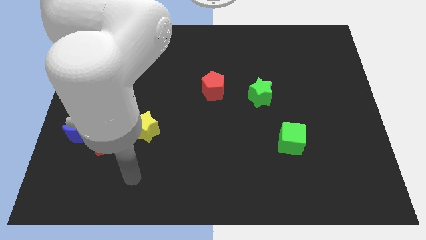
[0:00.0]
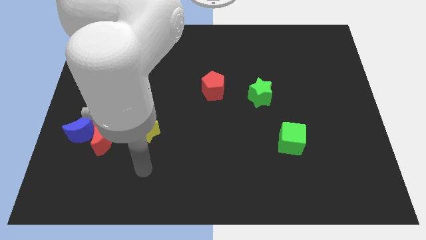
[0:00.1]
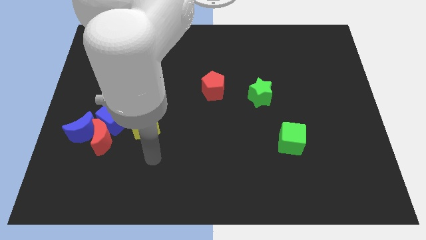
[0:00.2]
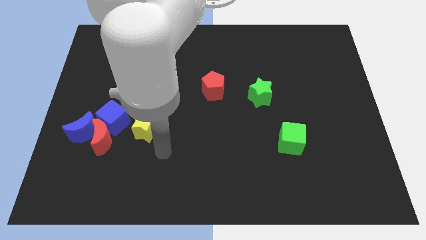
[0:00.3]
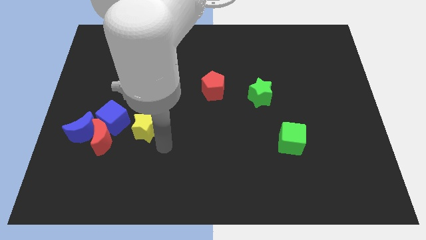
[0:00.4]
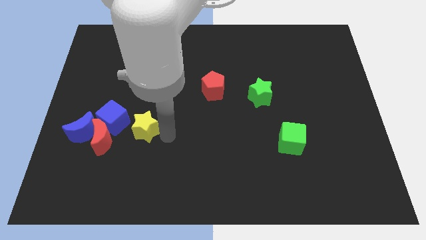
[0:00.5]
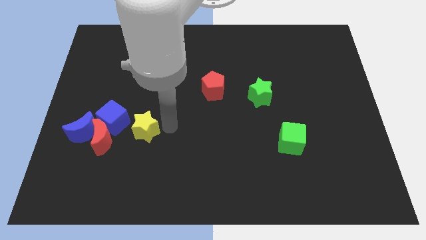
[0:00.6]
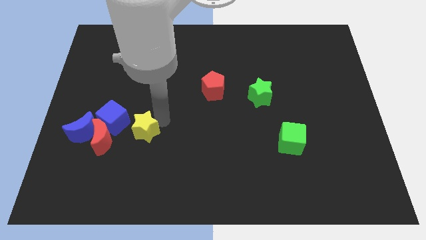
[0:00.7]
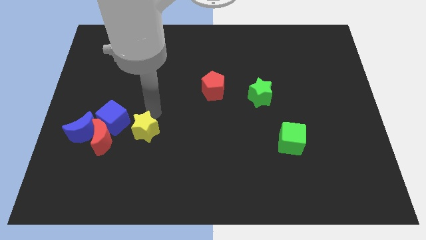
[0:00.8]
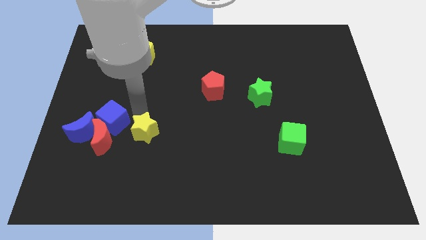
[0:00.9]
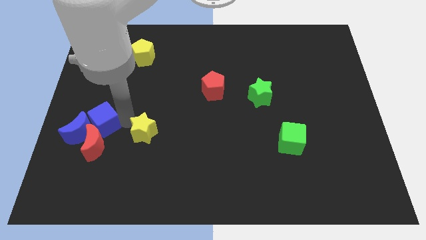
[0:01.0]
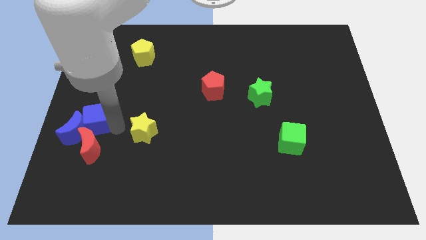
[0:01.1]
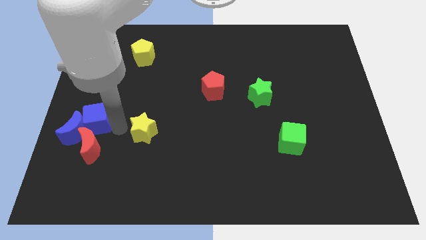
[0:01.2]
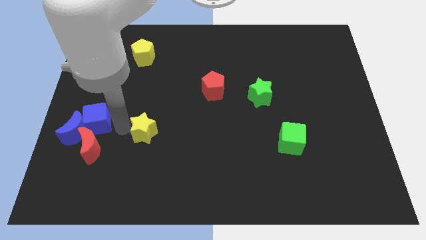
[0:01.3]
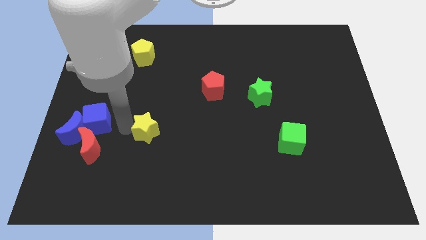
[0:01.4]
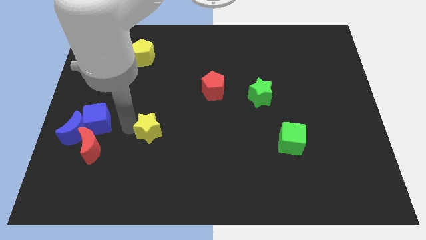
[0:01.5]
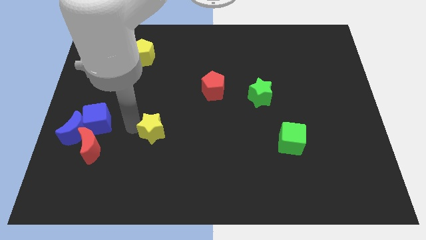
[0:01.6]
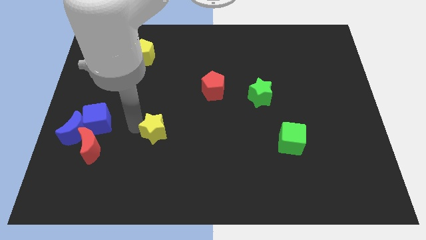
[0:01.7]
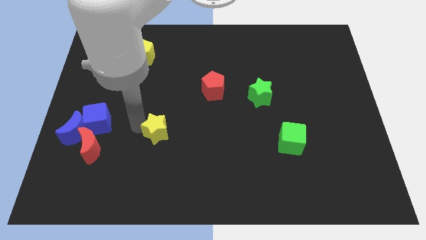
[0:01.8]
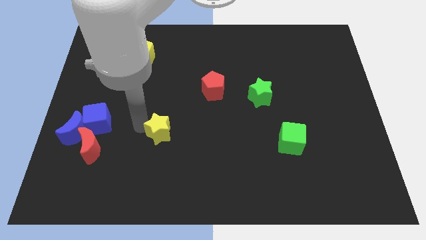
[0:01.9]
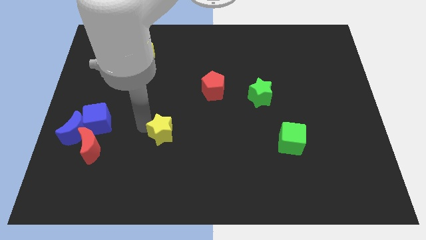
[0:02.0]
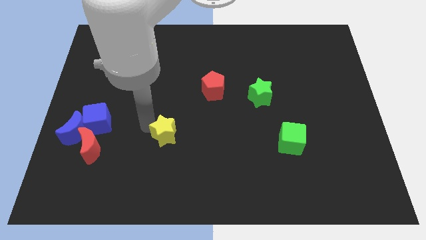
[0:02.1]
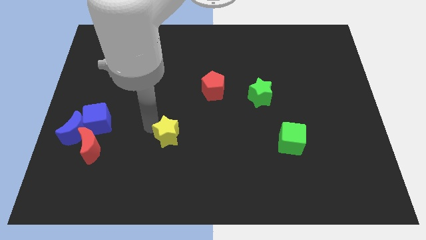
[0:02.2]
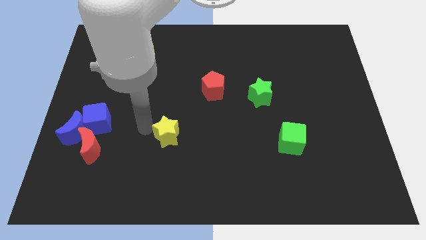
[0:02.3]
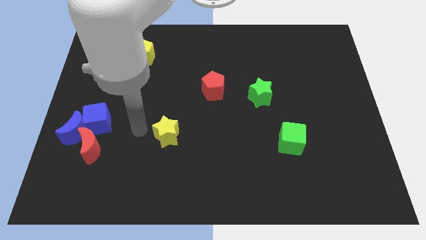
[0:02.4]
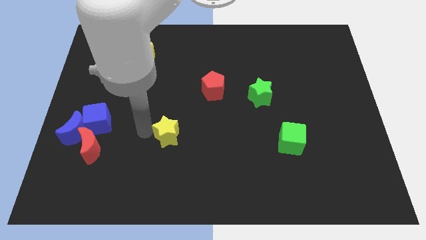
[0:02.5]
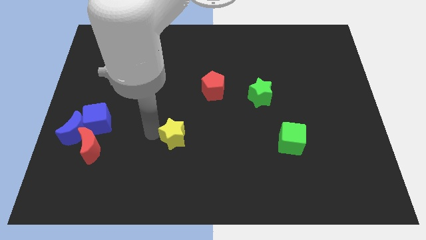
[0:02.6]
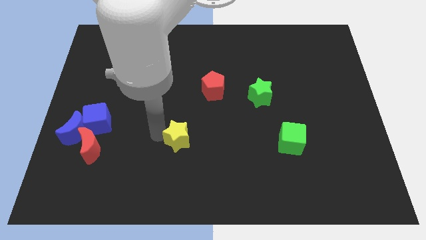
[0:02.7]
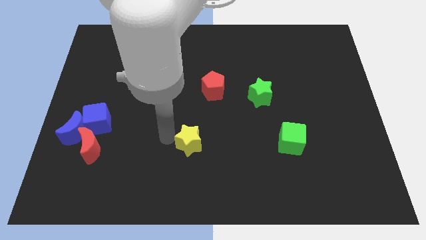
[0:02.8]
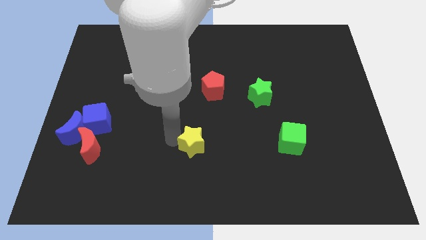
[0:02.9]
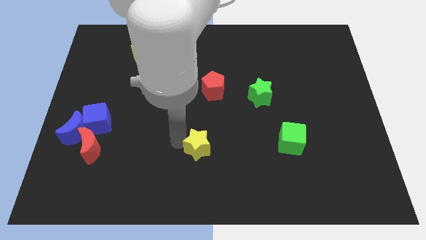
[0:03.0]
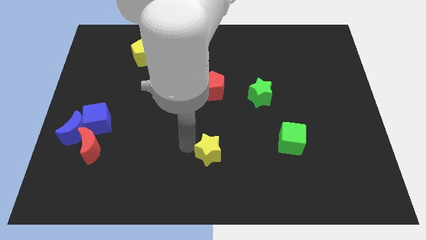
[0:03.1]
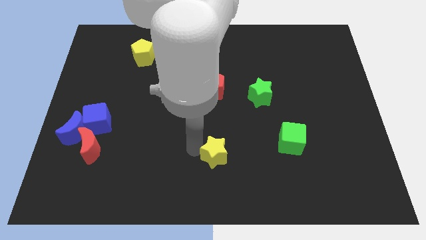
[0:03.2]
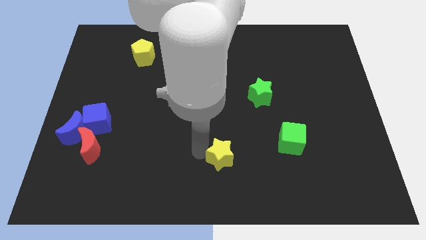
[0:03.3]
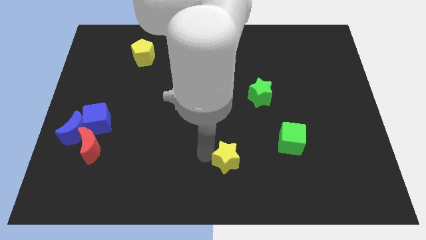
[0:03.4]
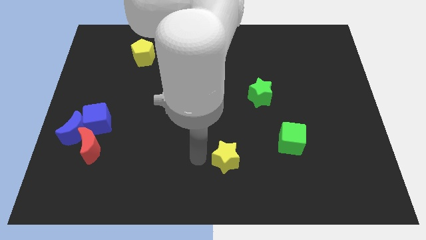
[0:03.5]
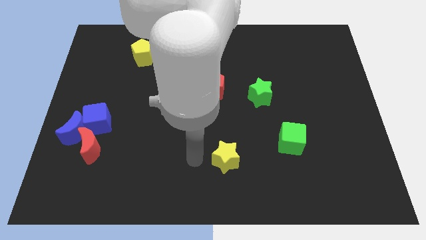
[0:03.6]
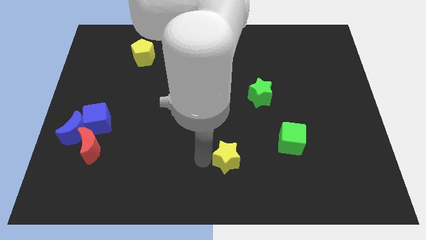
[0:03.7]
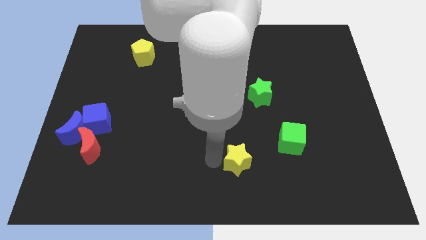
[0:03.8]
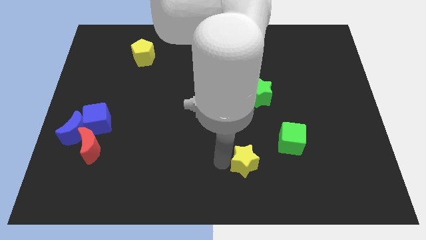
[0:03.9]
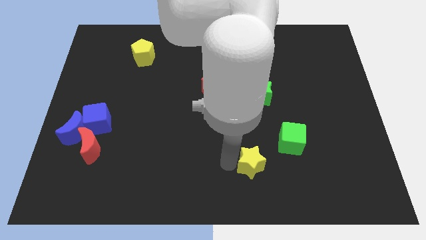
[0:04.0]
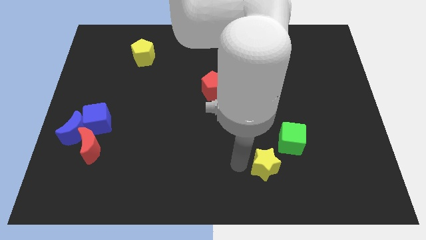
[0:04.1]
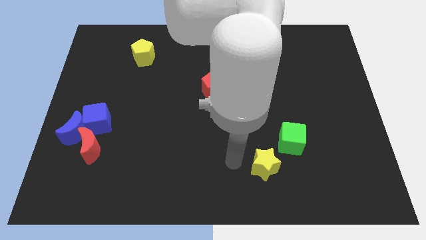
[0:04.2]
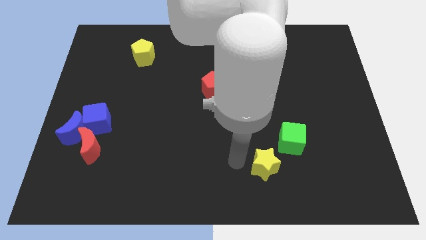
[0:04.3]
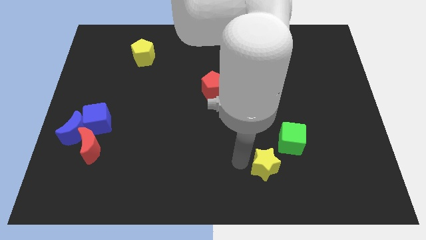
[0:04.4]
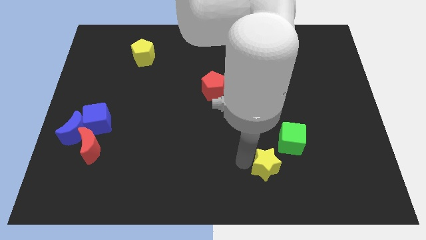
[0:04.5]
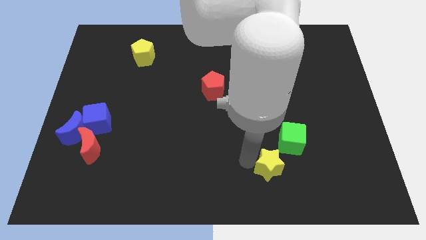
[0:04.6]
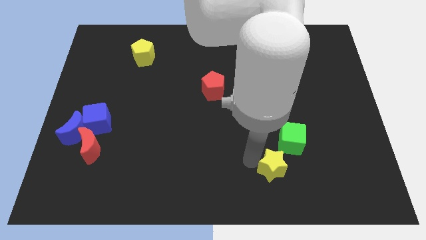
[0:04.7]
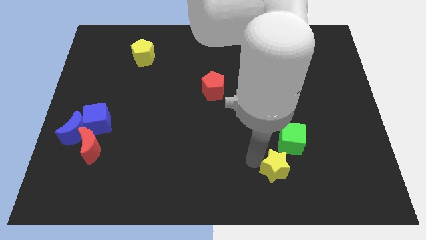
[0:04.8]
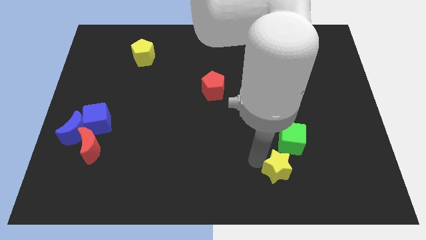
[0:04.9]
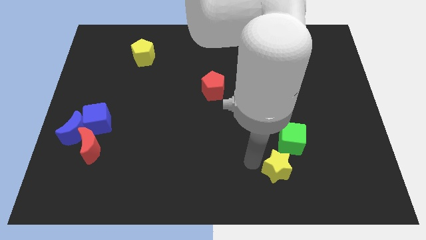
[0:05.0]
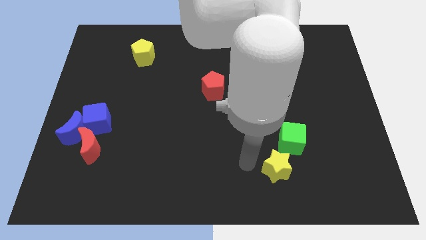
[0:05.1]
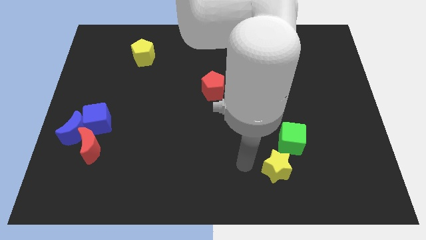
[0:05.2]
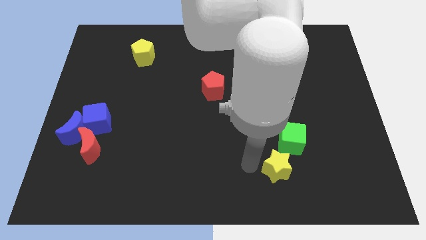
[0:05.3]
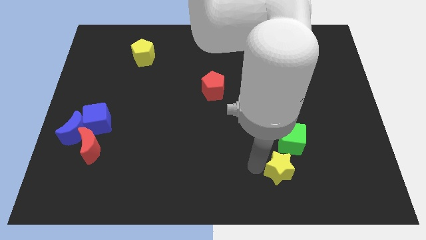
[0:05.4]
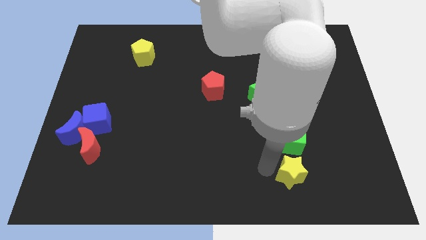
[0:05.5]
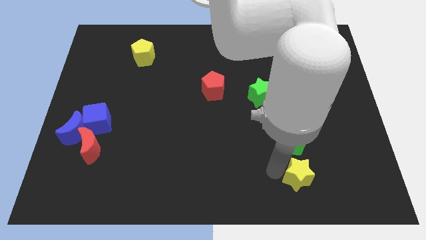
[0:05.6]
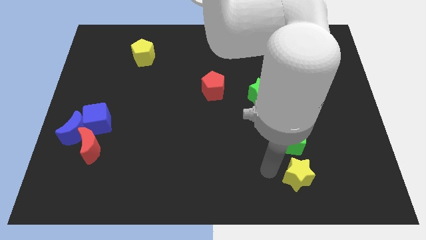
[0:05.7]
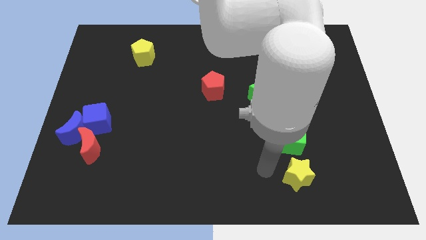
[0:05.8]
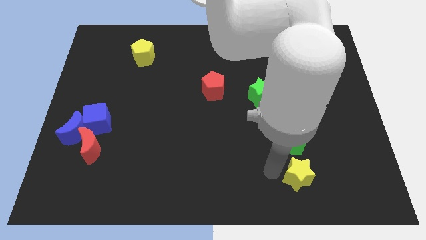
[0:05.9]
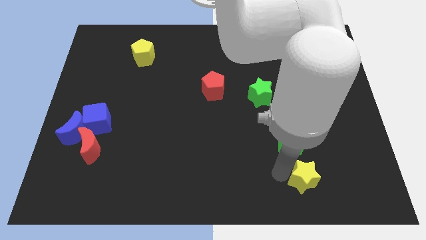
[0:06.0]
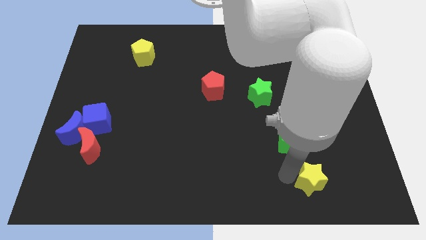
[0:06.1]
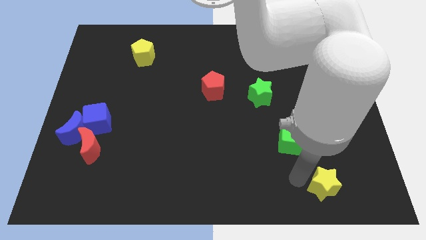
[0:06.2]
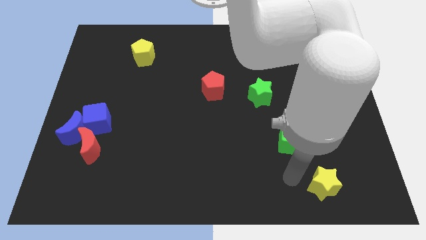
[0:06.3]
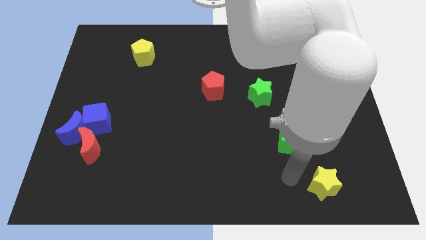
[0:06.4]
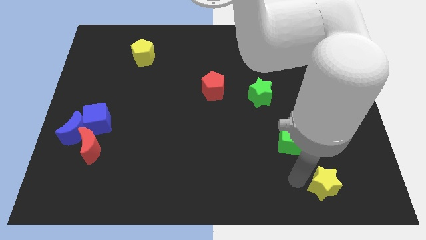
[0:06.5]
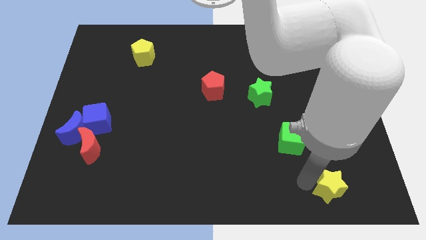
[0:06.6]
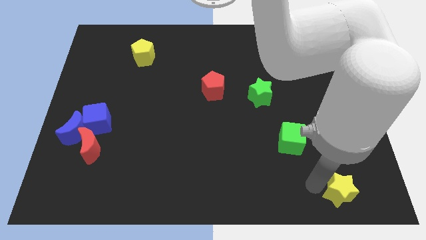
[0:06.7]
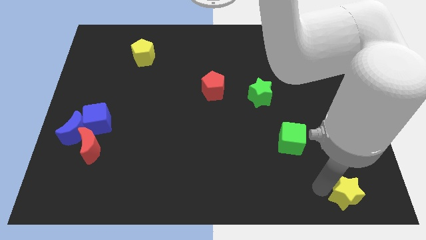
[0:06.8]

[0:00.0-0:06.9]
slide the yellow star to the bottom right

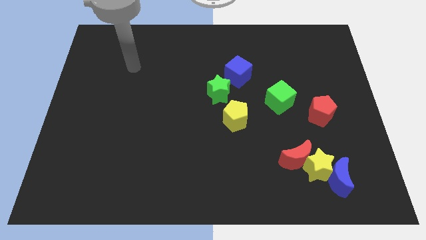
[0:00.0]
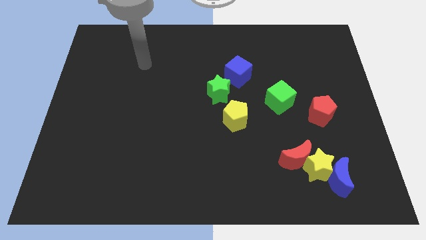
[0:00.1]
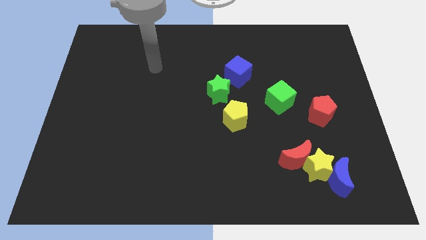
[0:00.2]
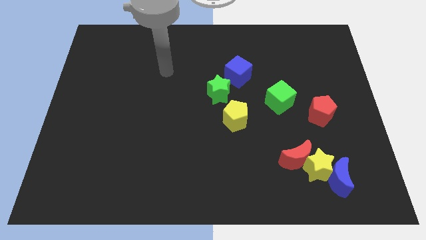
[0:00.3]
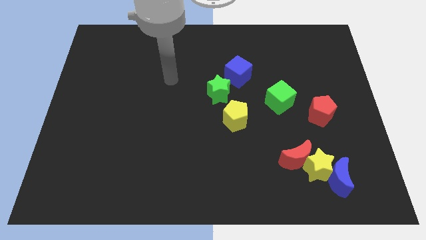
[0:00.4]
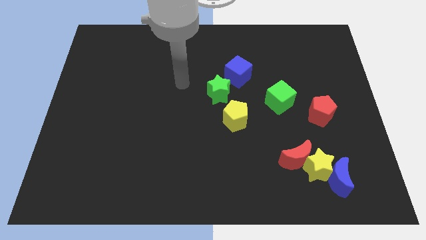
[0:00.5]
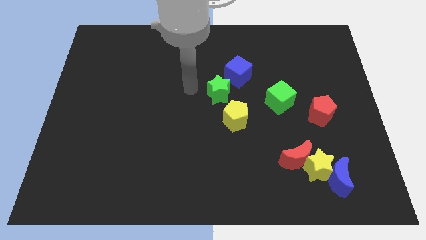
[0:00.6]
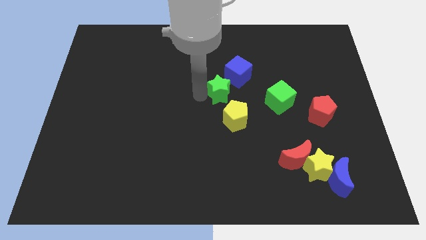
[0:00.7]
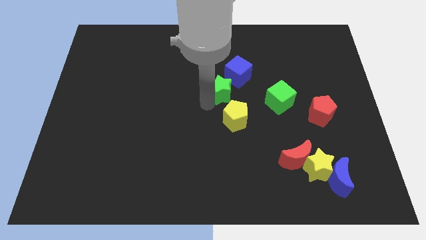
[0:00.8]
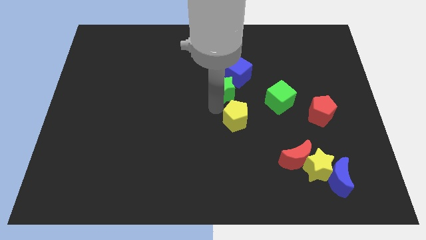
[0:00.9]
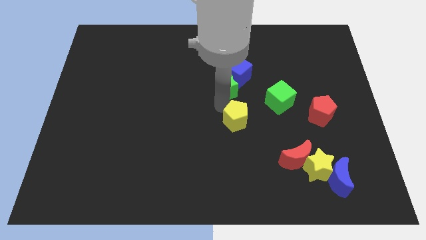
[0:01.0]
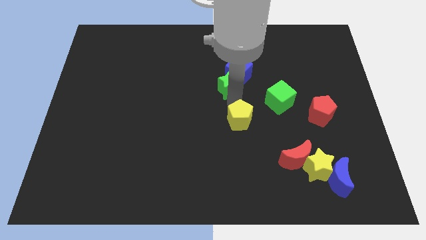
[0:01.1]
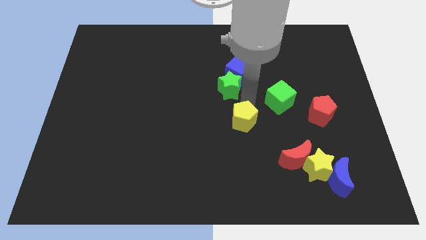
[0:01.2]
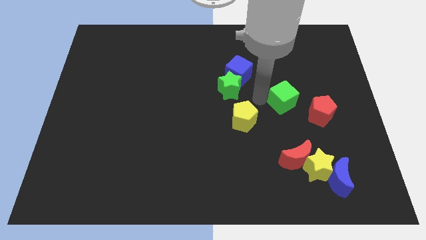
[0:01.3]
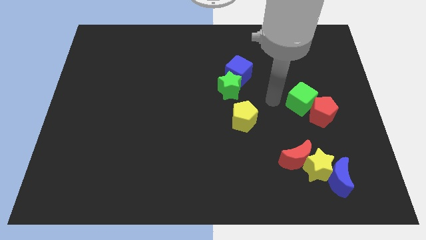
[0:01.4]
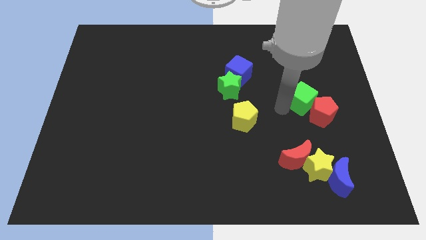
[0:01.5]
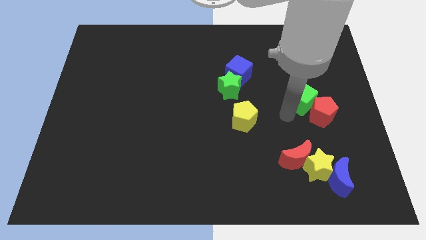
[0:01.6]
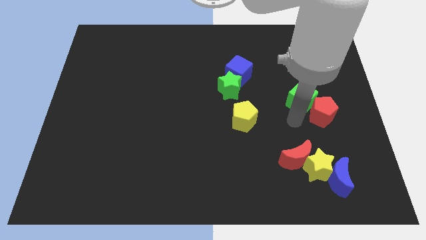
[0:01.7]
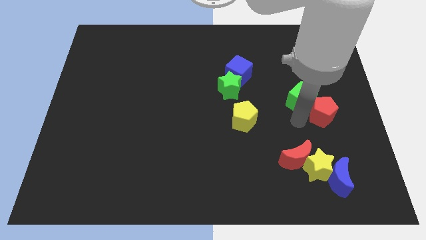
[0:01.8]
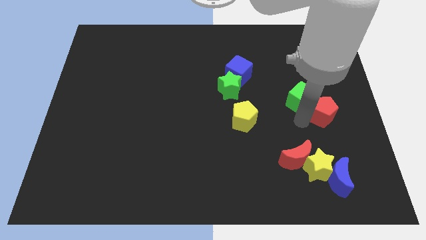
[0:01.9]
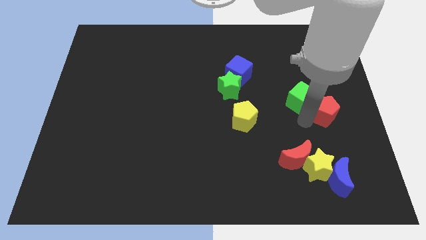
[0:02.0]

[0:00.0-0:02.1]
push the red pentagon to the right side of the board
